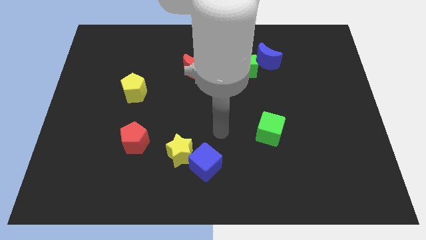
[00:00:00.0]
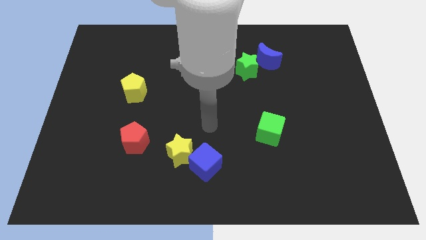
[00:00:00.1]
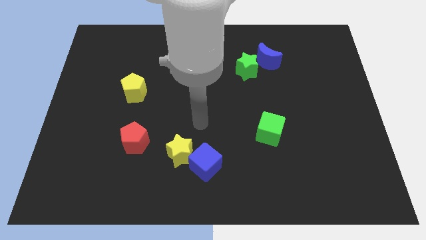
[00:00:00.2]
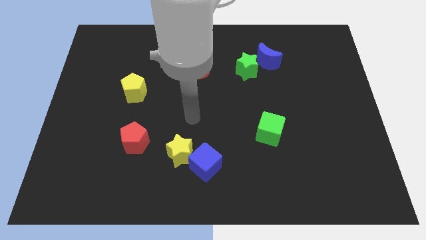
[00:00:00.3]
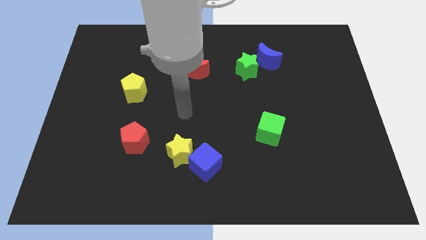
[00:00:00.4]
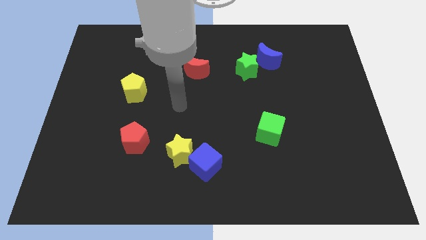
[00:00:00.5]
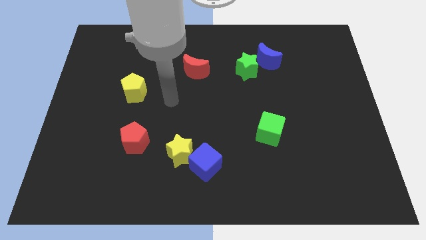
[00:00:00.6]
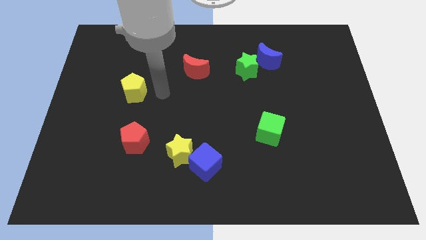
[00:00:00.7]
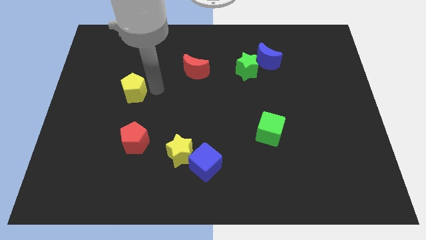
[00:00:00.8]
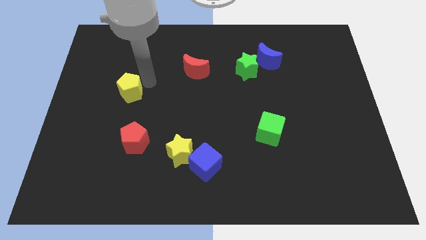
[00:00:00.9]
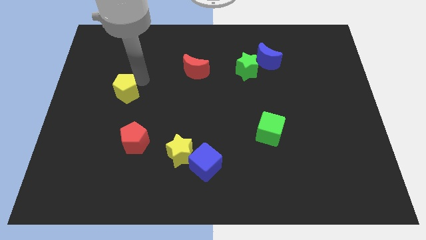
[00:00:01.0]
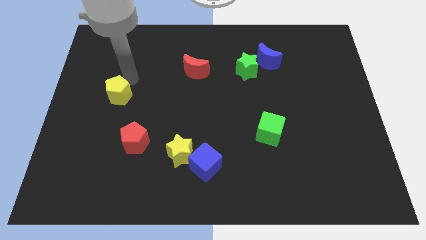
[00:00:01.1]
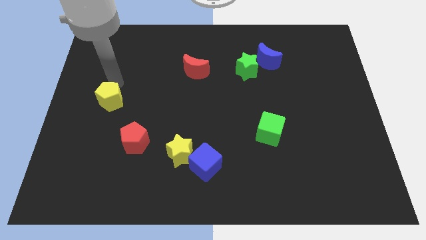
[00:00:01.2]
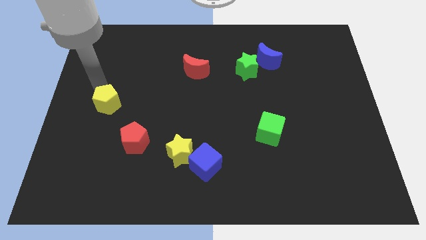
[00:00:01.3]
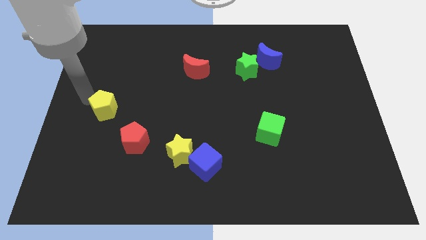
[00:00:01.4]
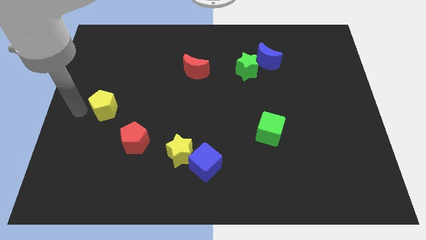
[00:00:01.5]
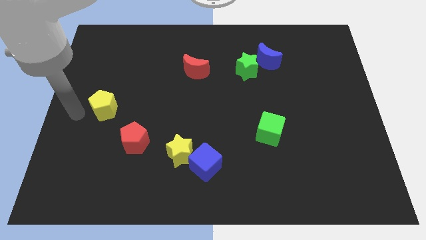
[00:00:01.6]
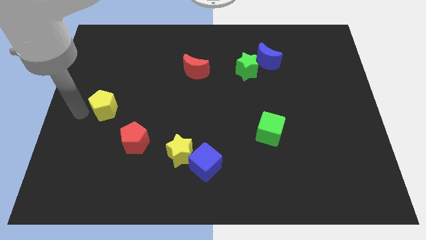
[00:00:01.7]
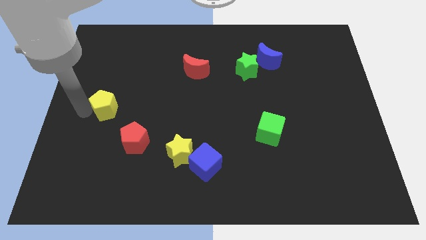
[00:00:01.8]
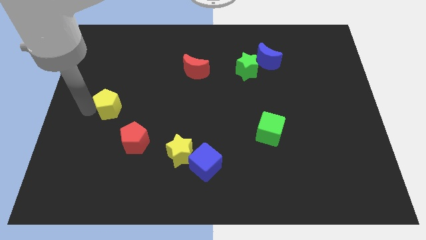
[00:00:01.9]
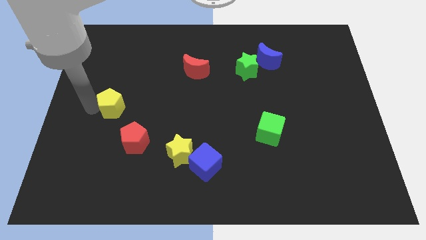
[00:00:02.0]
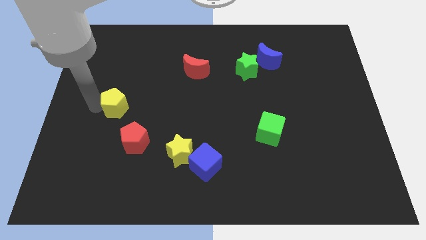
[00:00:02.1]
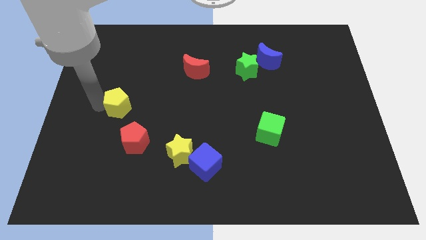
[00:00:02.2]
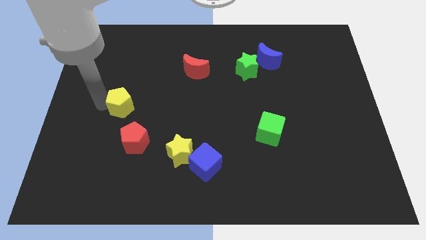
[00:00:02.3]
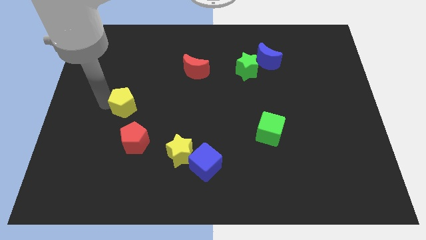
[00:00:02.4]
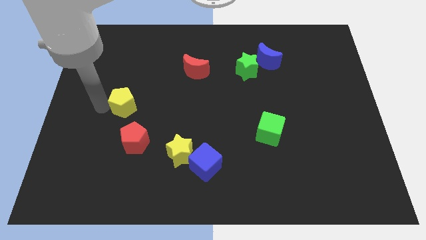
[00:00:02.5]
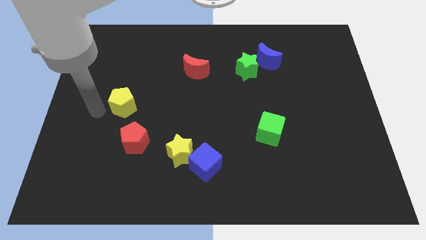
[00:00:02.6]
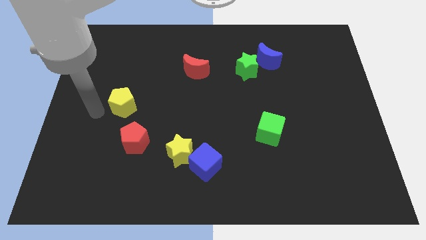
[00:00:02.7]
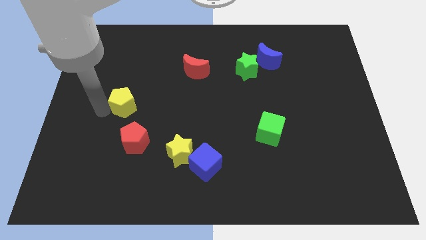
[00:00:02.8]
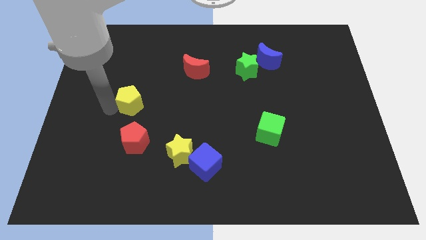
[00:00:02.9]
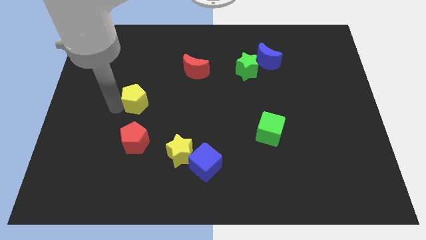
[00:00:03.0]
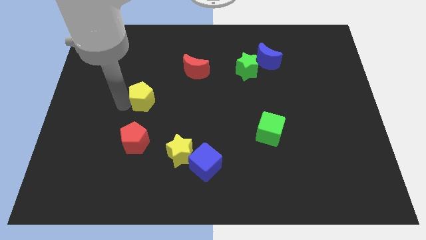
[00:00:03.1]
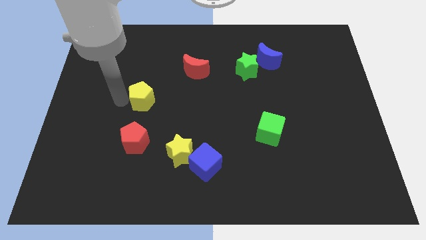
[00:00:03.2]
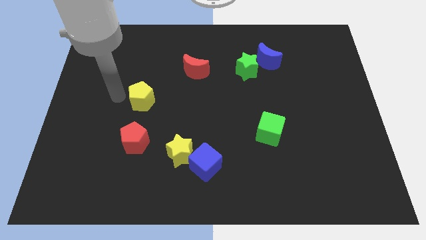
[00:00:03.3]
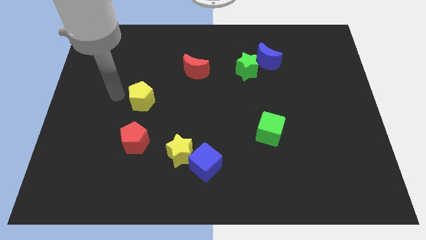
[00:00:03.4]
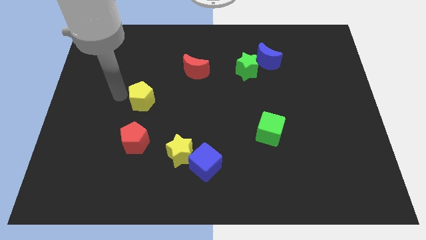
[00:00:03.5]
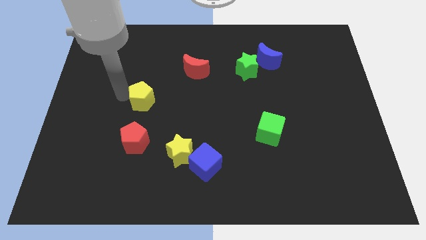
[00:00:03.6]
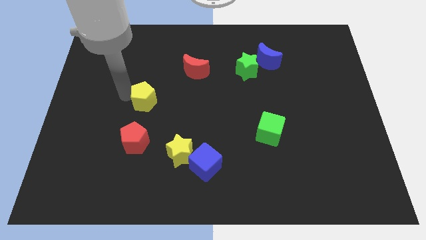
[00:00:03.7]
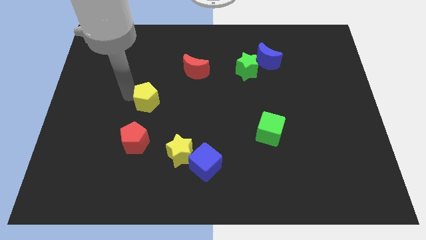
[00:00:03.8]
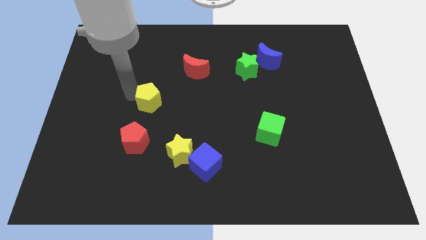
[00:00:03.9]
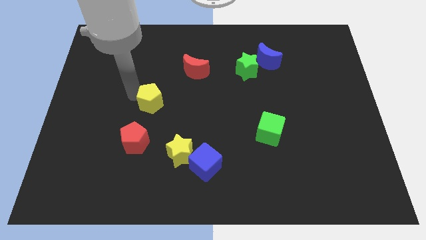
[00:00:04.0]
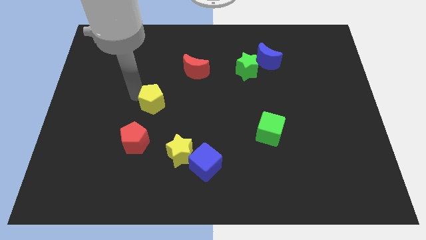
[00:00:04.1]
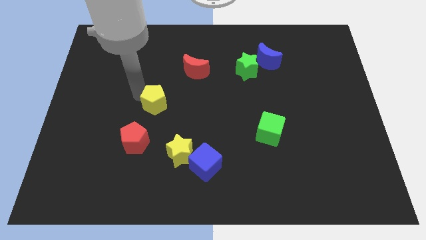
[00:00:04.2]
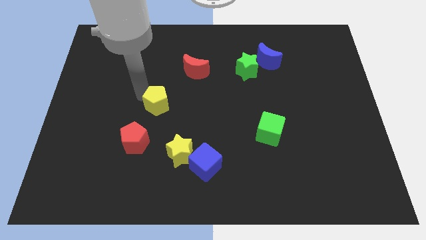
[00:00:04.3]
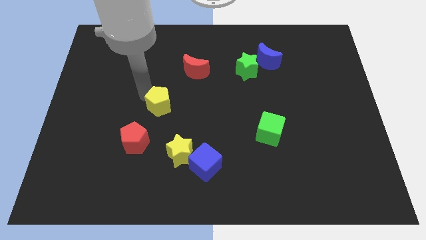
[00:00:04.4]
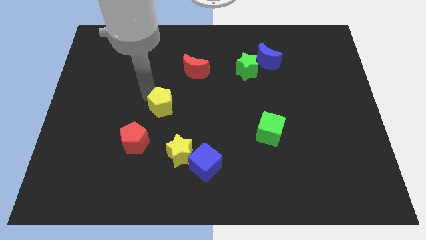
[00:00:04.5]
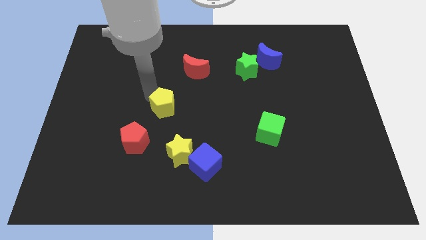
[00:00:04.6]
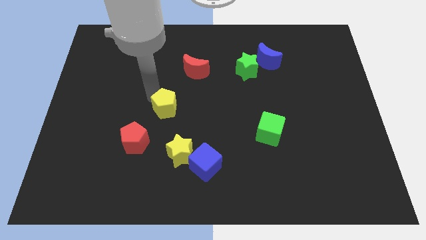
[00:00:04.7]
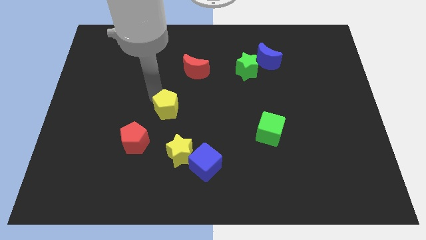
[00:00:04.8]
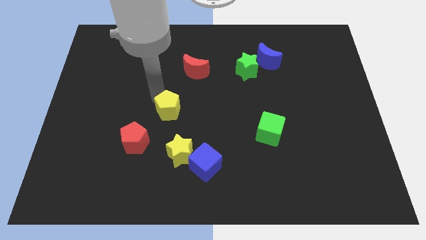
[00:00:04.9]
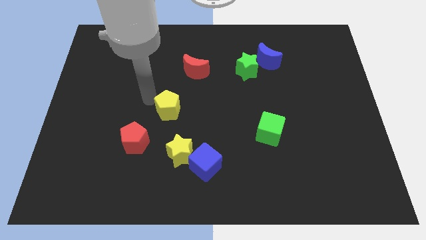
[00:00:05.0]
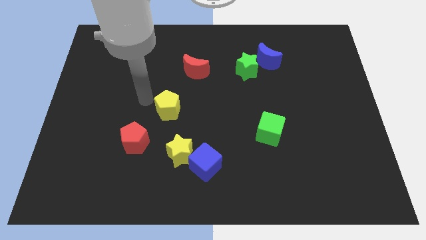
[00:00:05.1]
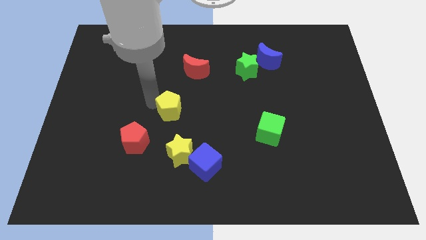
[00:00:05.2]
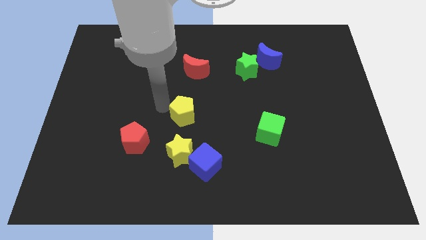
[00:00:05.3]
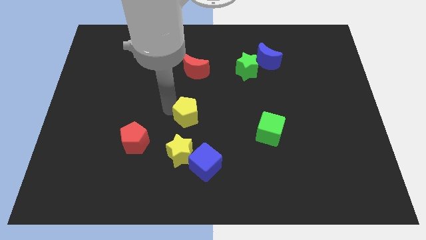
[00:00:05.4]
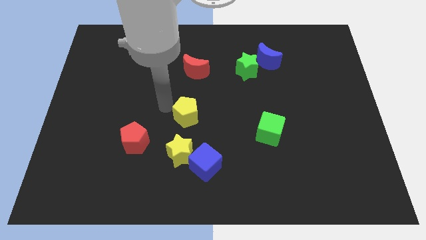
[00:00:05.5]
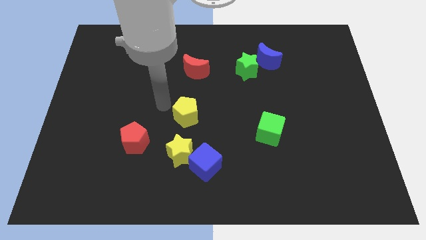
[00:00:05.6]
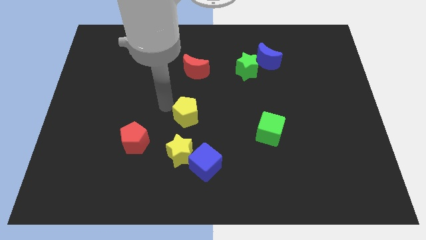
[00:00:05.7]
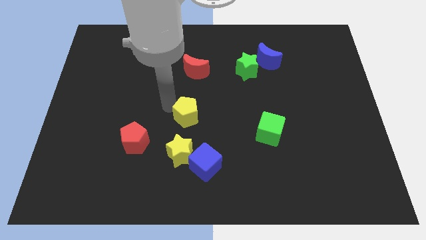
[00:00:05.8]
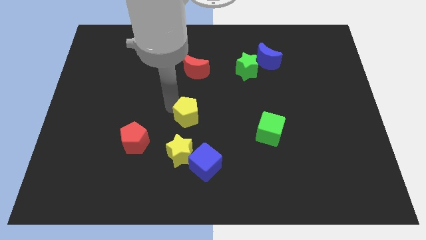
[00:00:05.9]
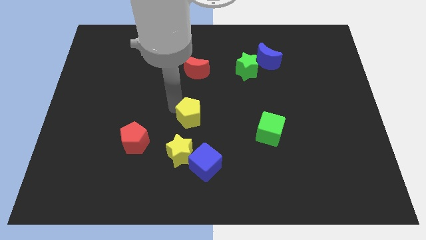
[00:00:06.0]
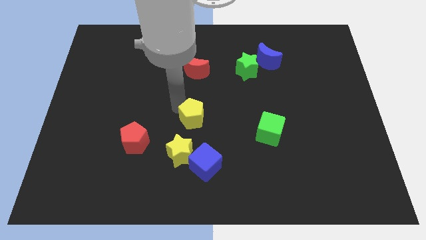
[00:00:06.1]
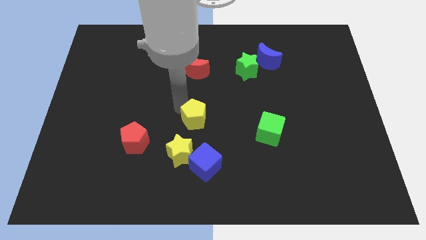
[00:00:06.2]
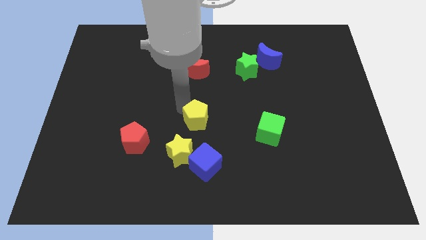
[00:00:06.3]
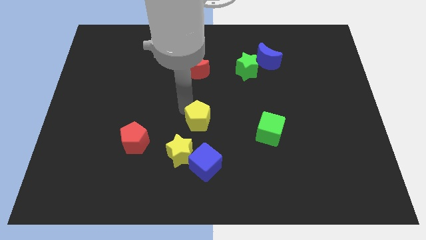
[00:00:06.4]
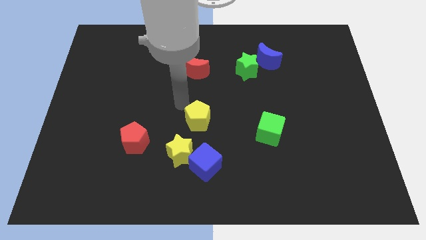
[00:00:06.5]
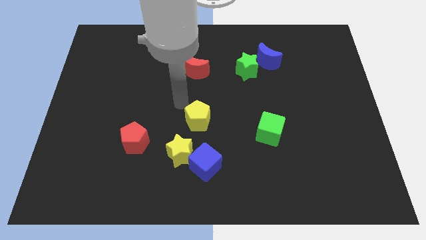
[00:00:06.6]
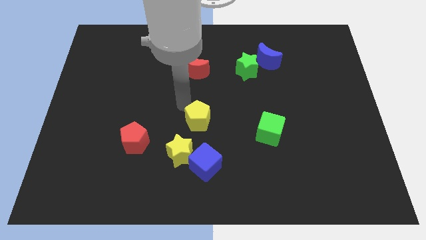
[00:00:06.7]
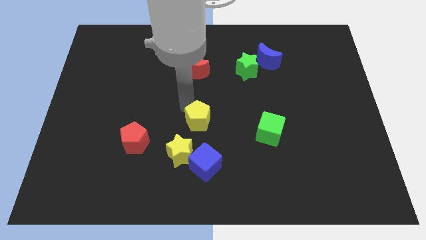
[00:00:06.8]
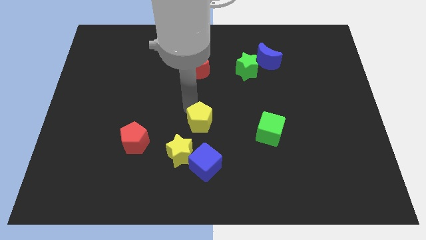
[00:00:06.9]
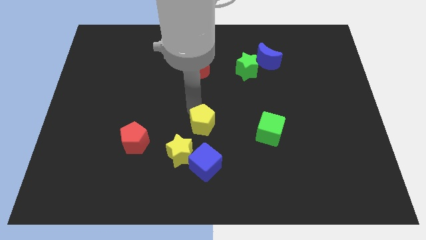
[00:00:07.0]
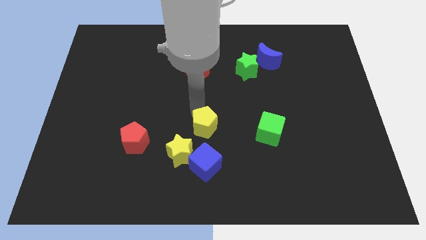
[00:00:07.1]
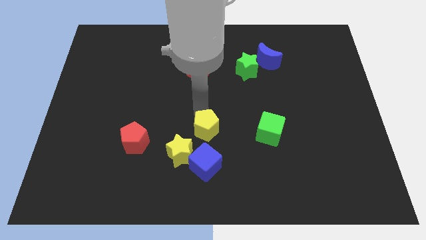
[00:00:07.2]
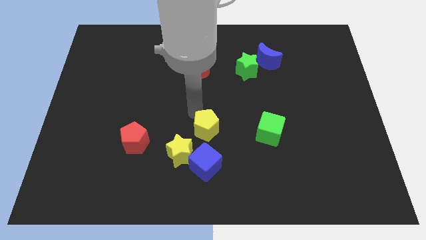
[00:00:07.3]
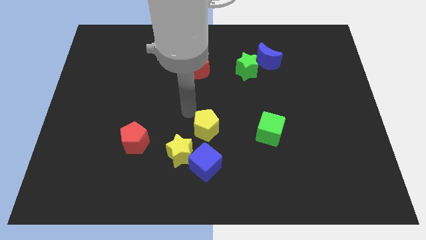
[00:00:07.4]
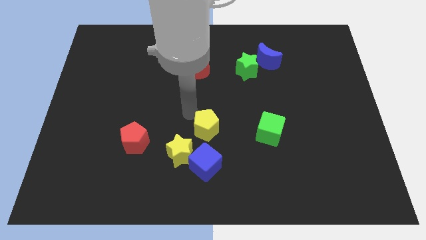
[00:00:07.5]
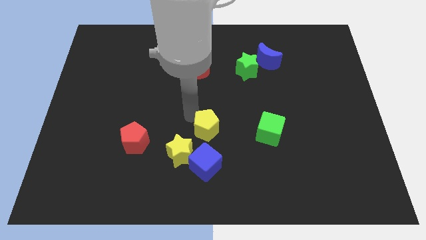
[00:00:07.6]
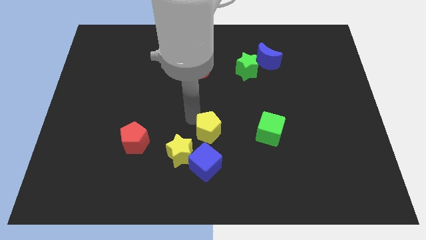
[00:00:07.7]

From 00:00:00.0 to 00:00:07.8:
push the yellow pentagon downwards and then to the right
